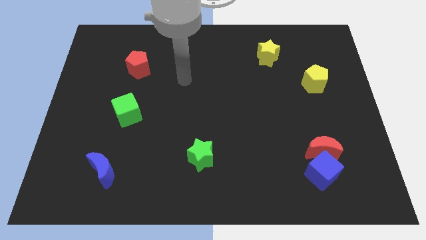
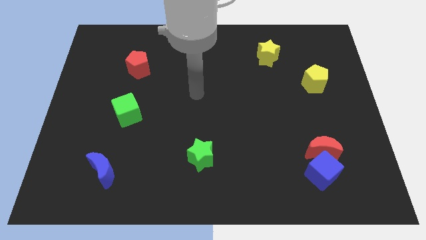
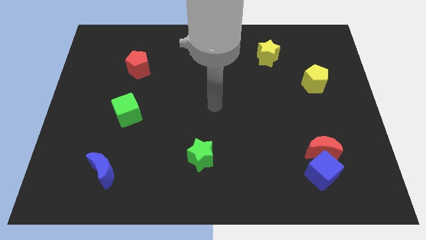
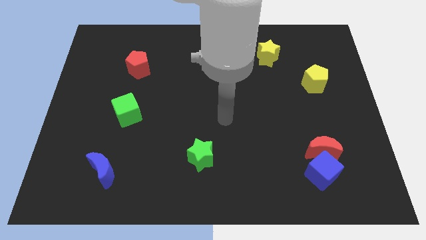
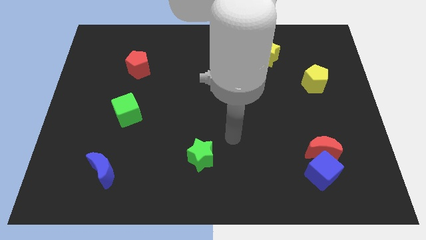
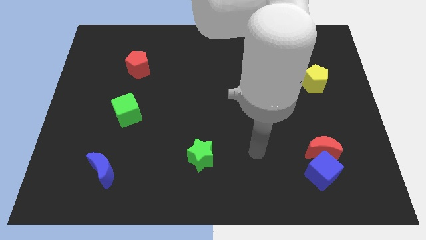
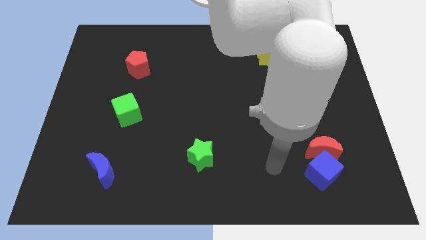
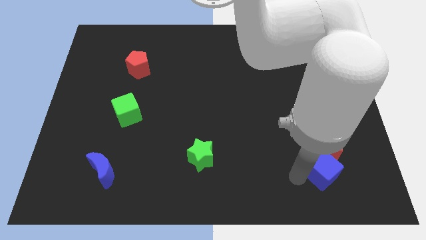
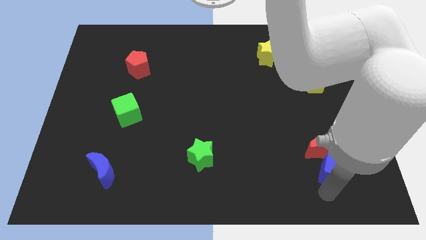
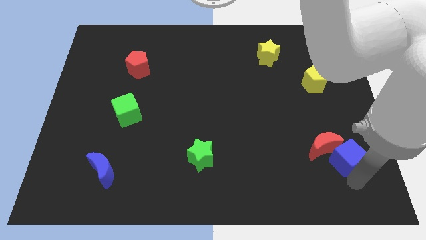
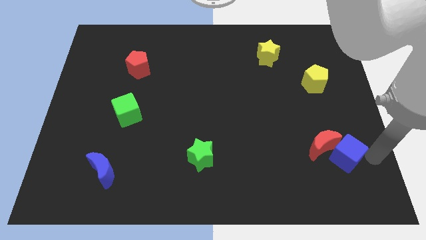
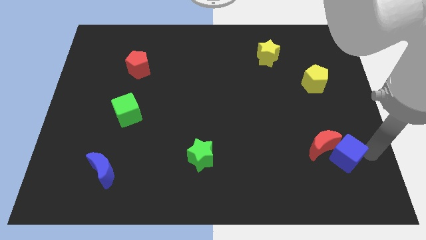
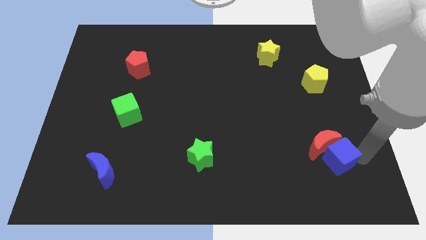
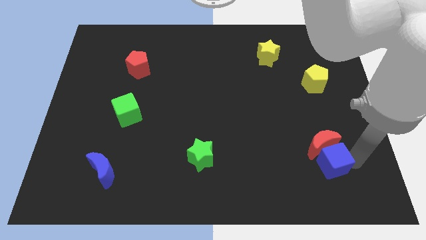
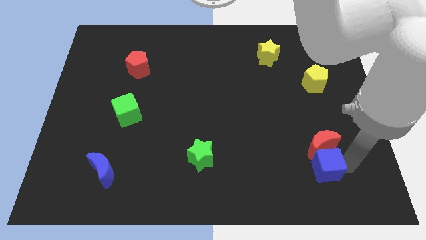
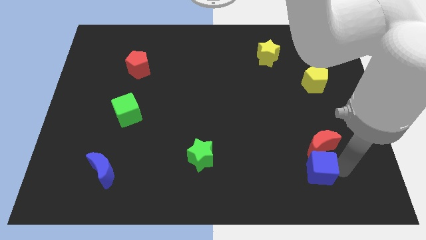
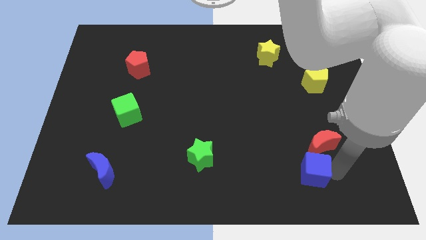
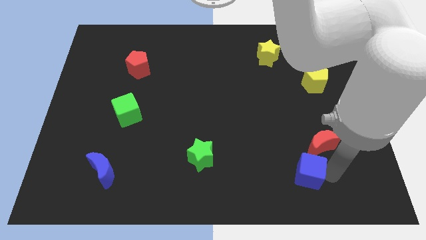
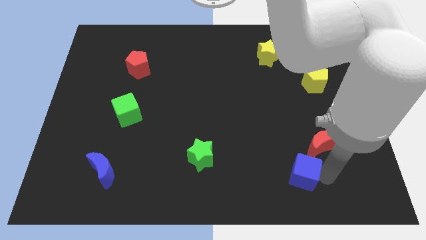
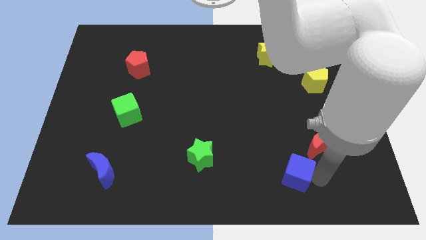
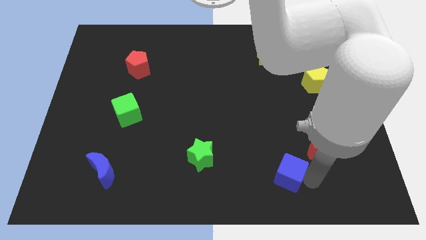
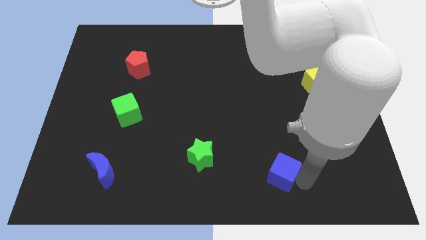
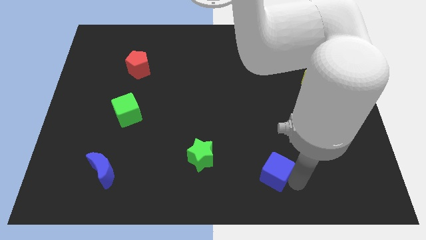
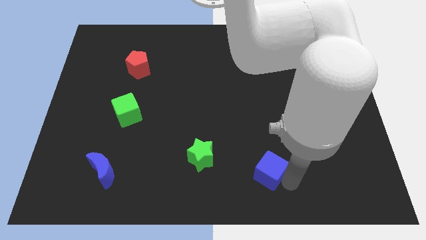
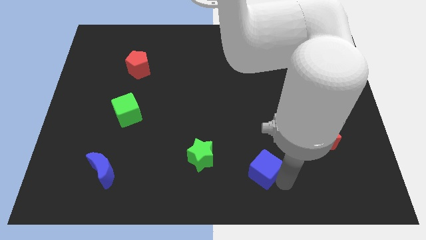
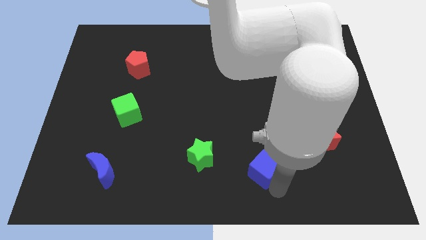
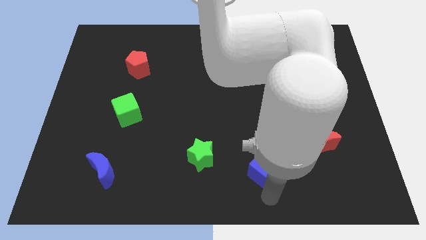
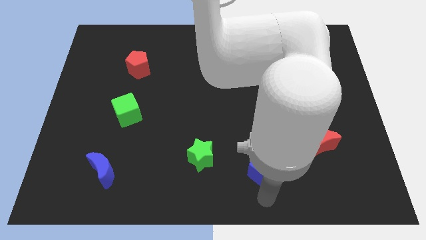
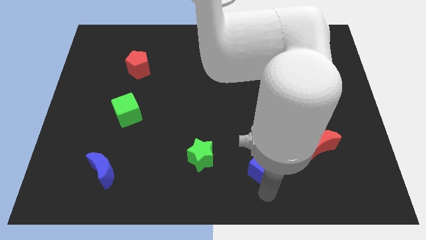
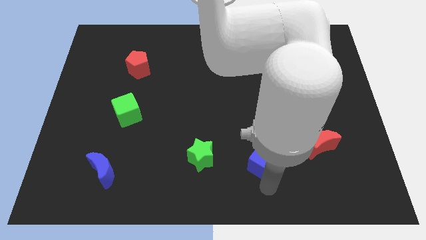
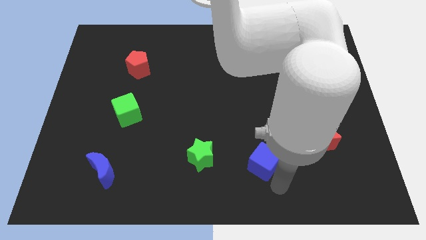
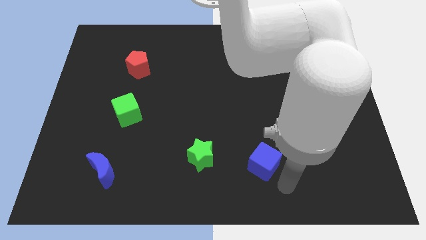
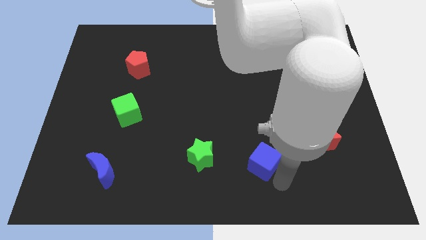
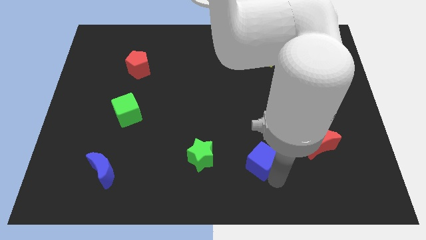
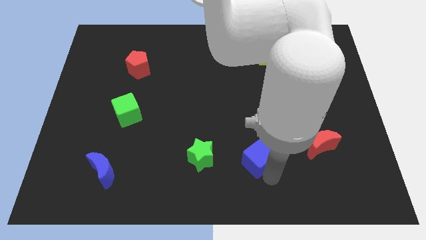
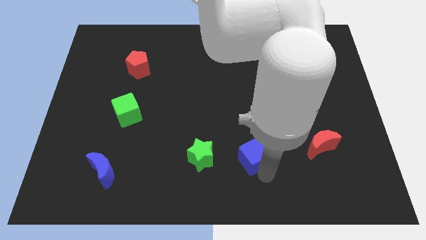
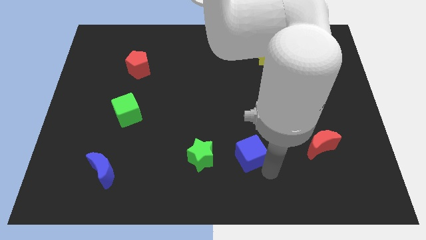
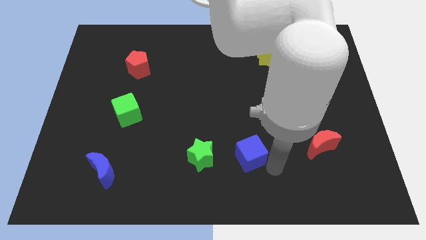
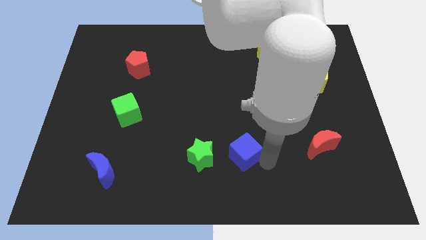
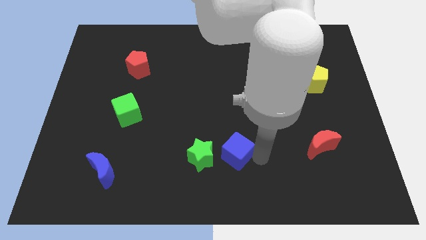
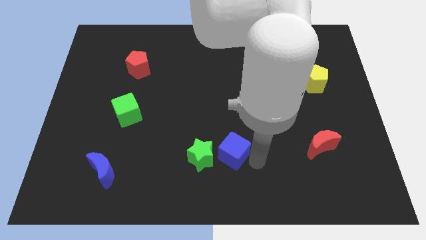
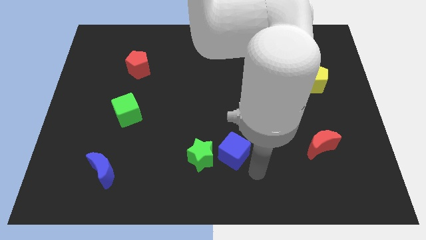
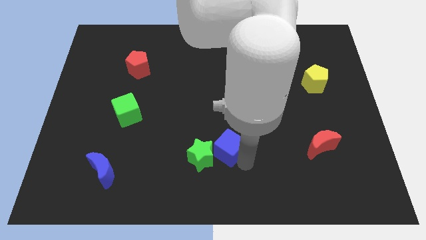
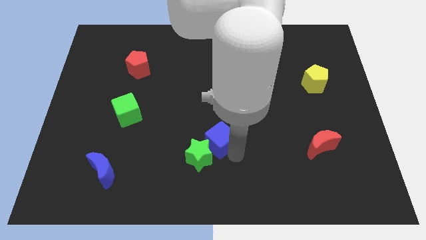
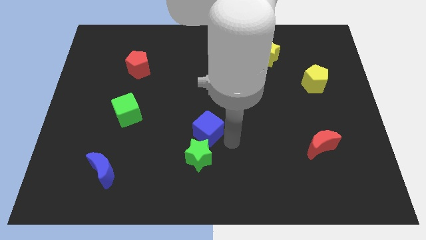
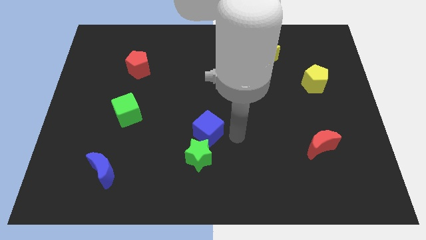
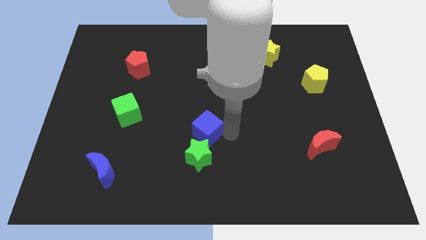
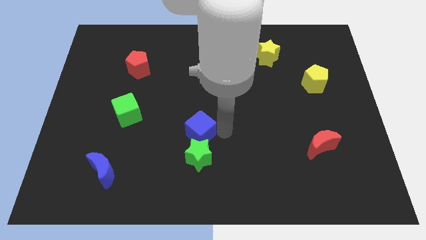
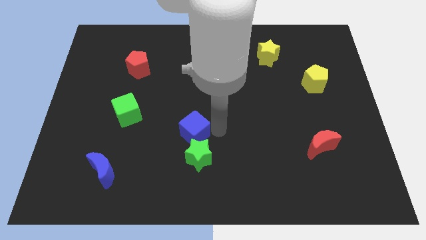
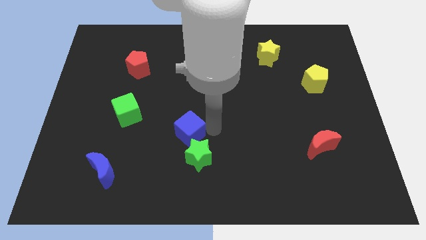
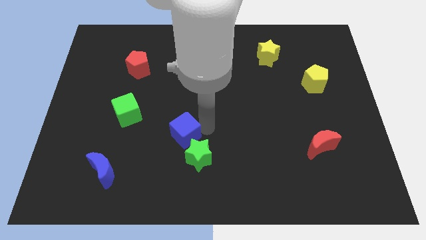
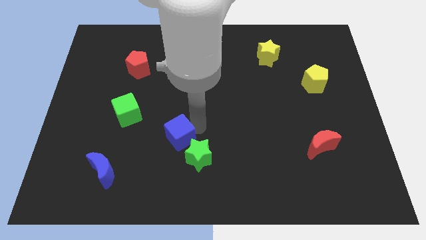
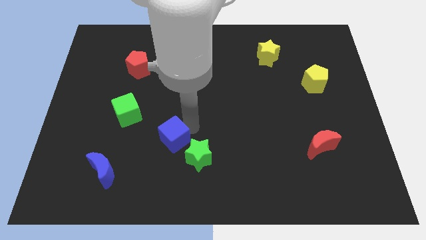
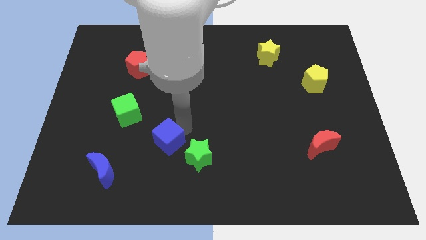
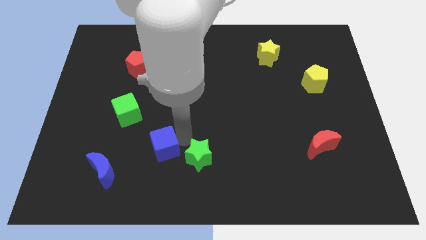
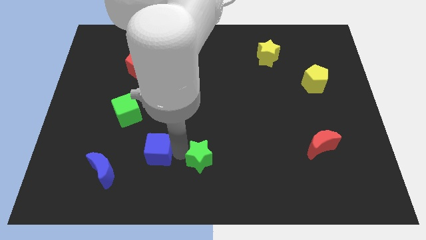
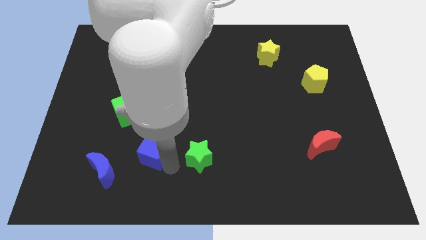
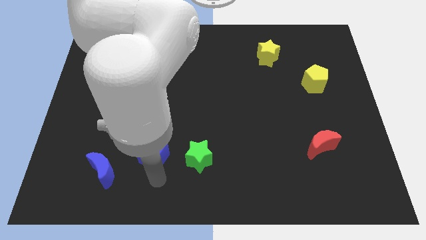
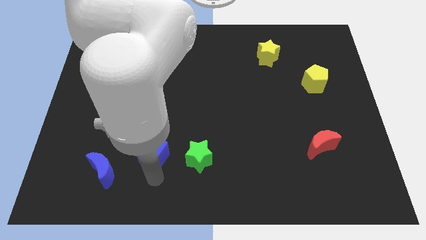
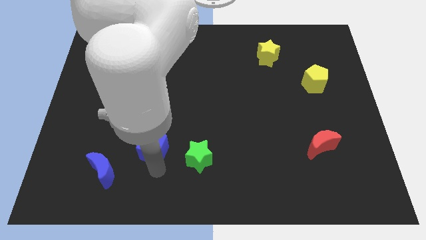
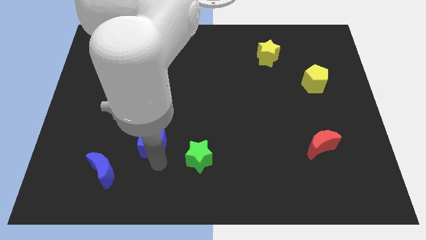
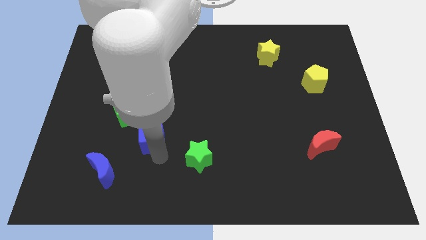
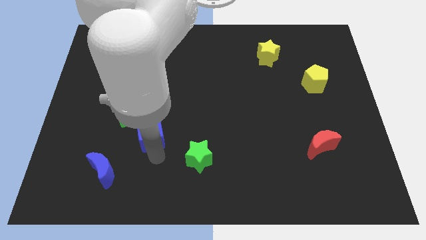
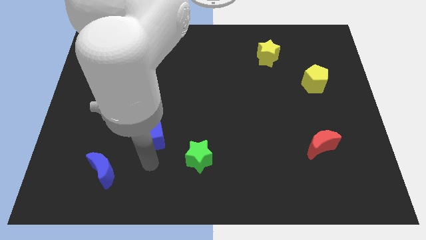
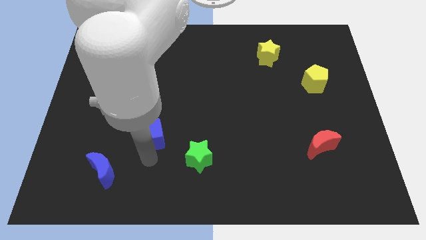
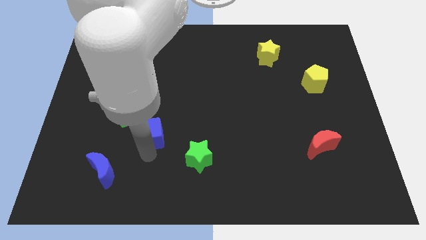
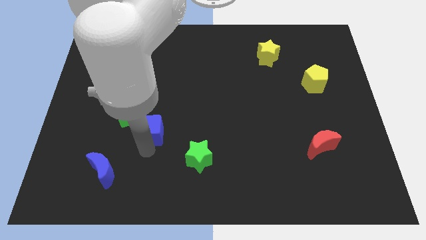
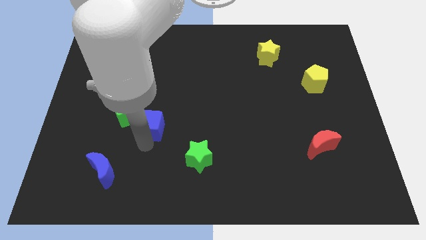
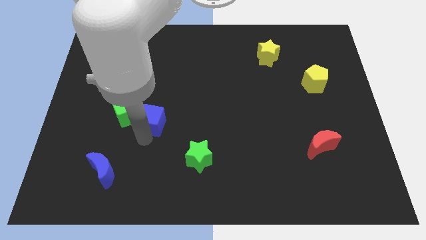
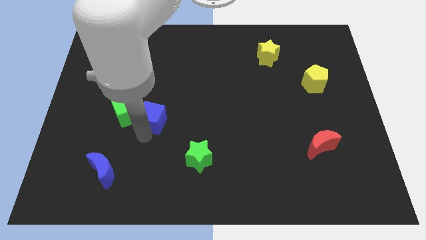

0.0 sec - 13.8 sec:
put the blue cube to the green cube
